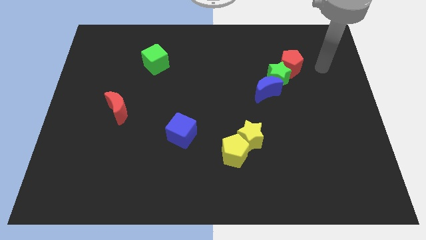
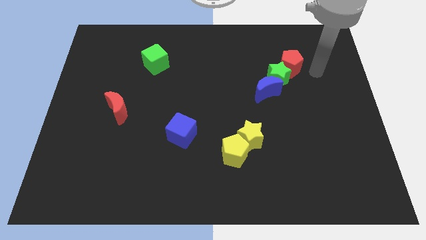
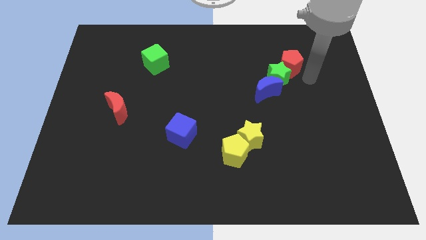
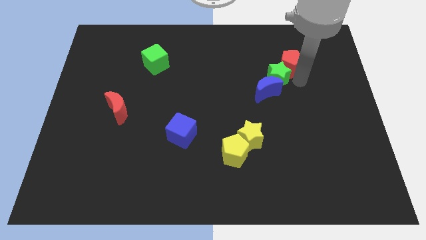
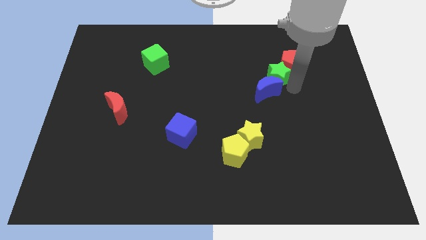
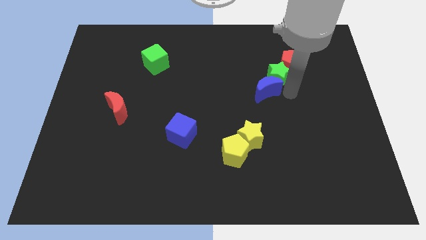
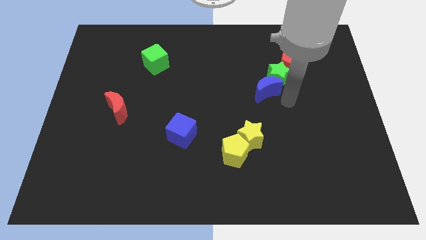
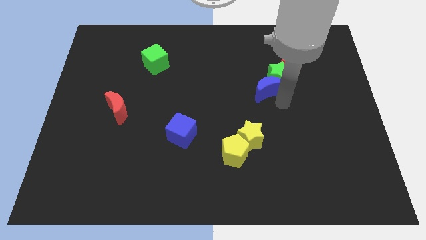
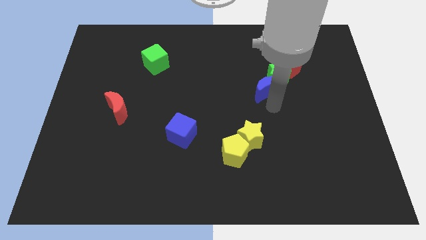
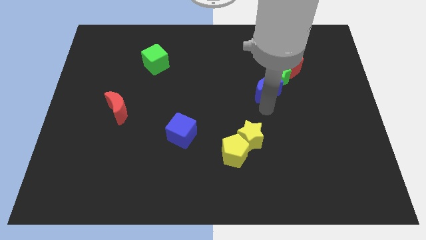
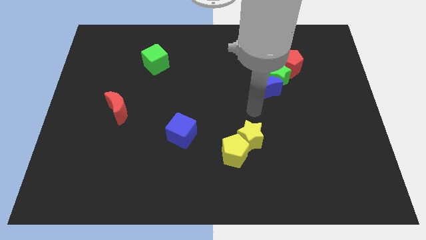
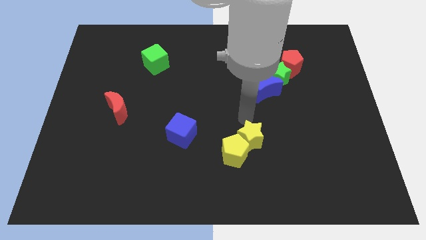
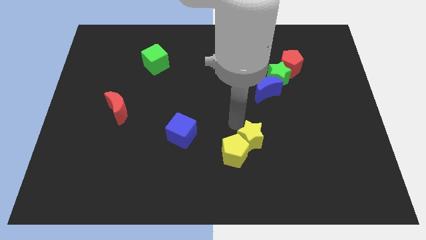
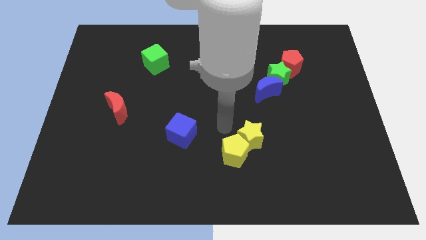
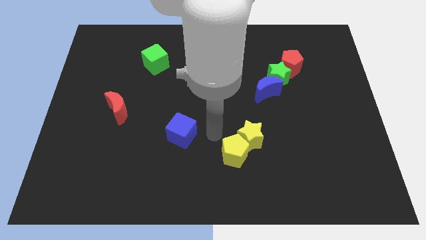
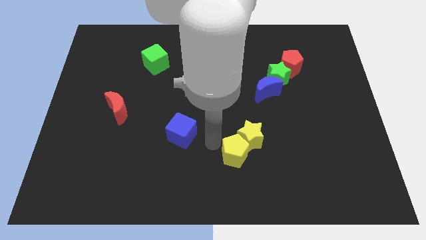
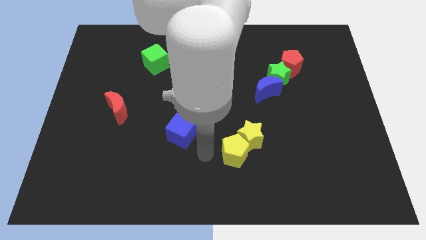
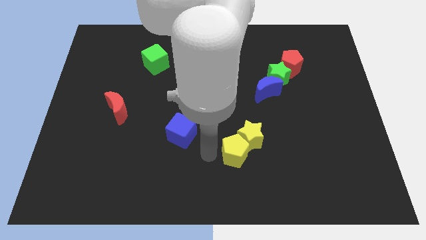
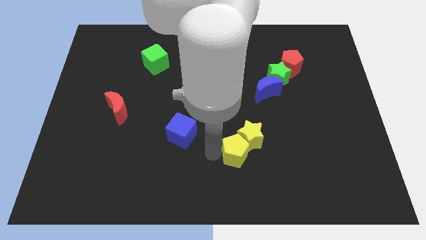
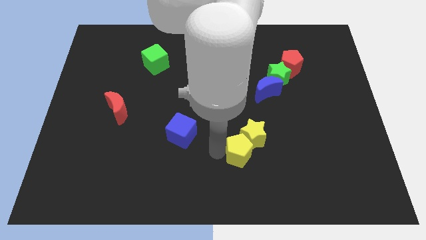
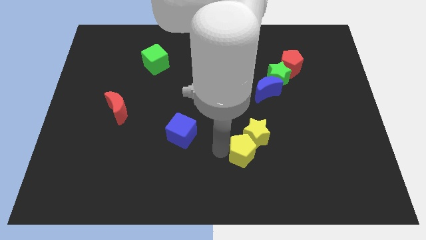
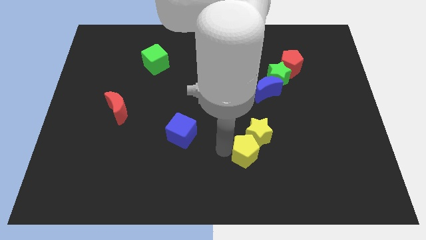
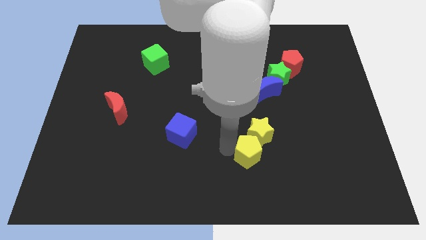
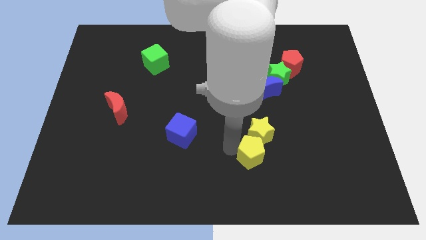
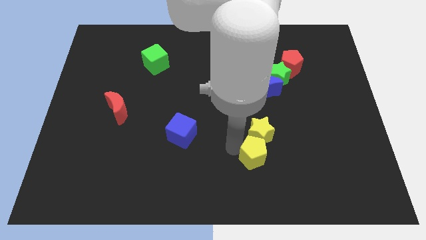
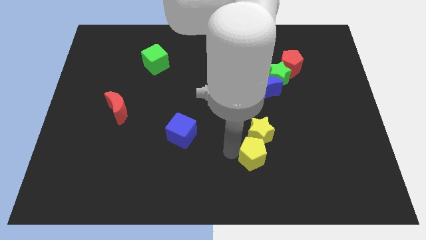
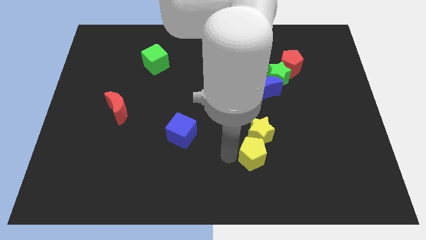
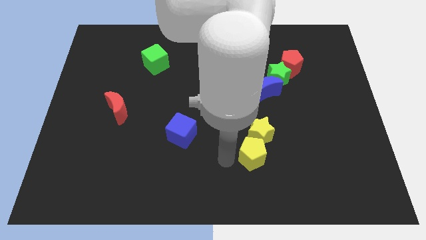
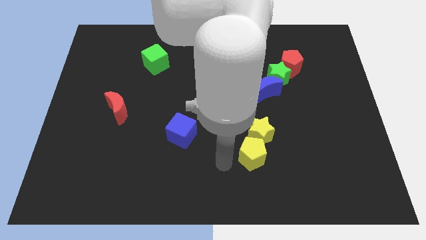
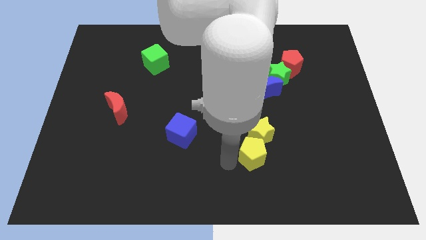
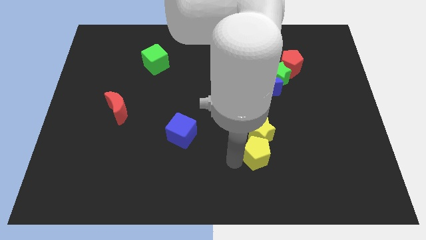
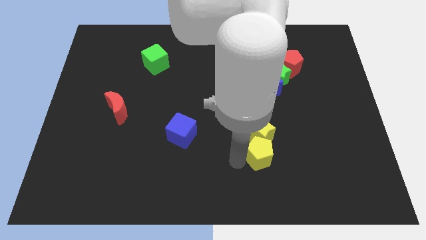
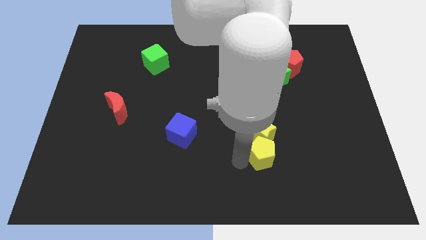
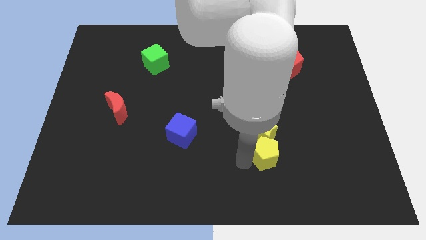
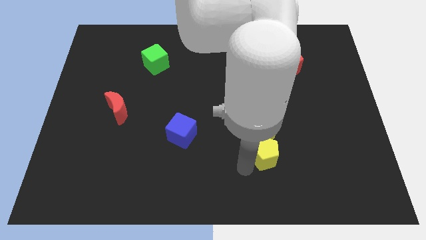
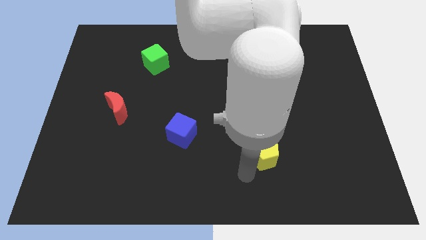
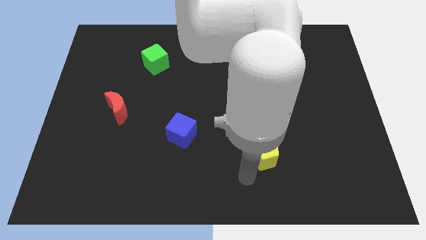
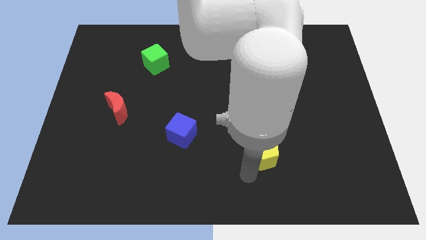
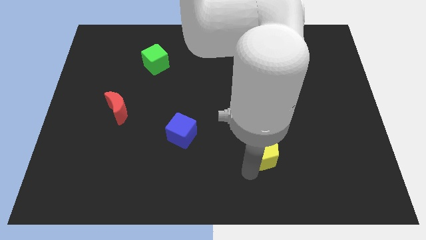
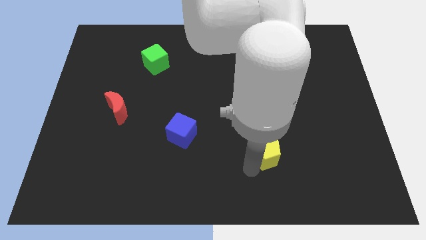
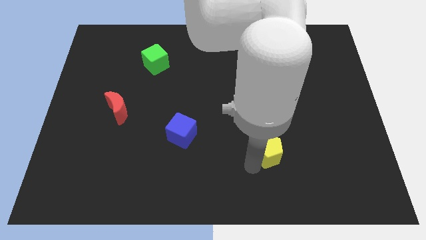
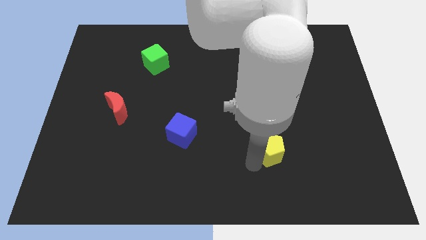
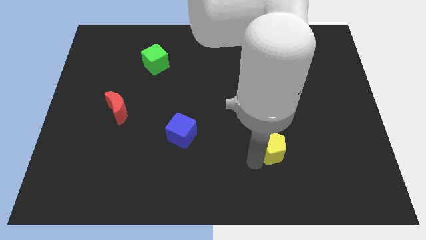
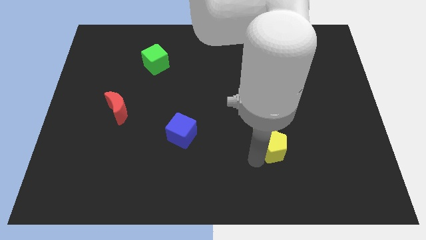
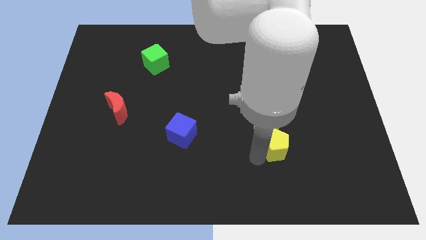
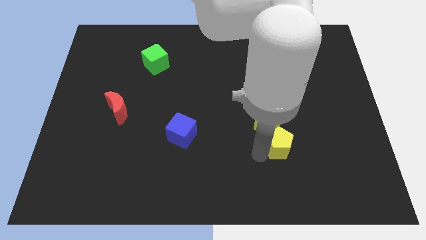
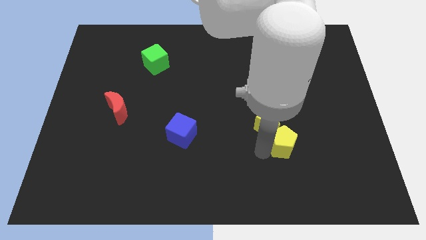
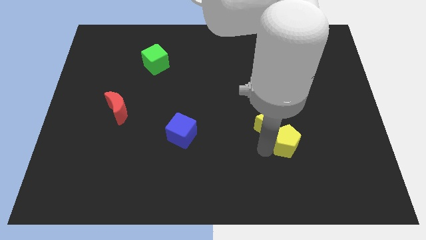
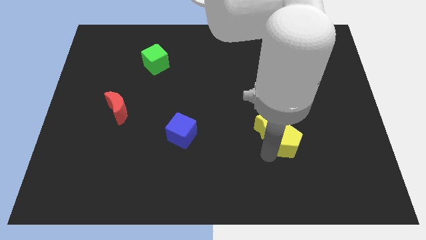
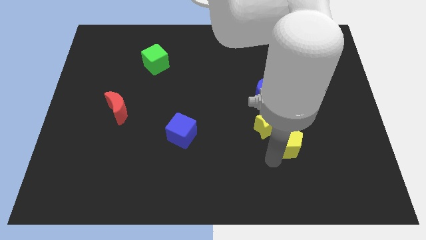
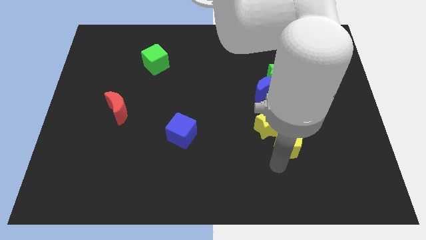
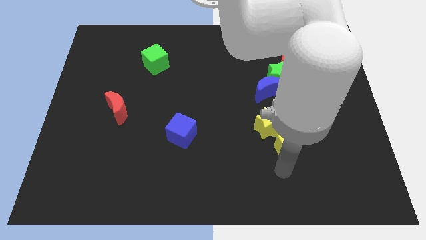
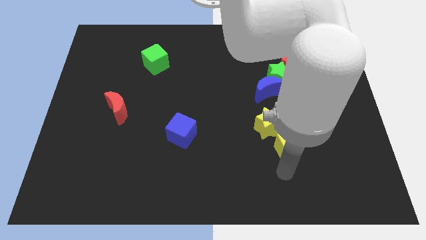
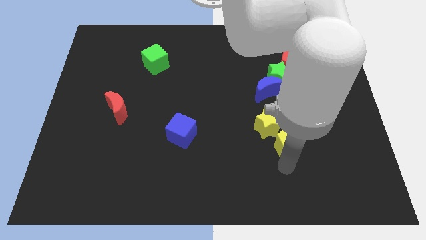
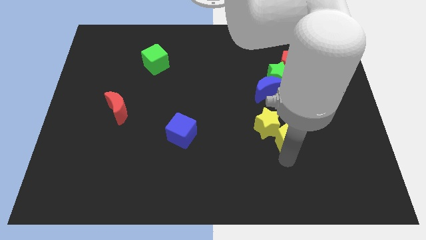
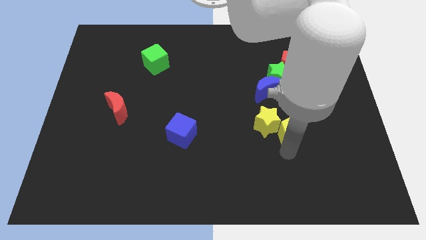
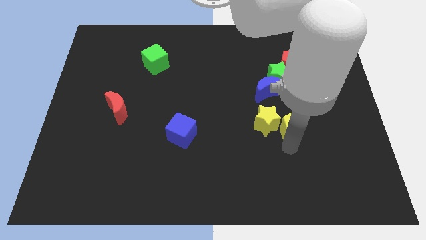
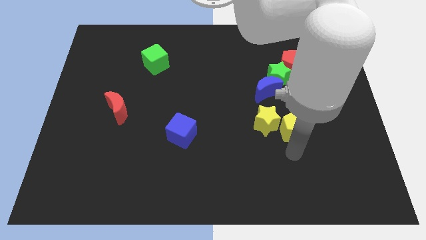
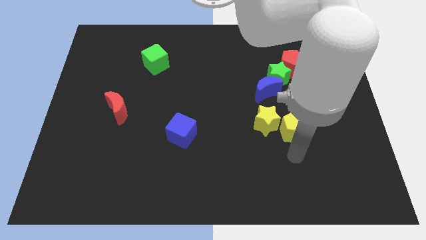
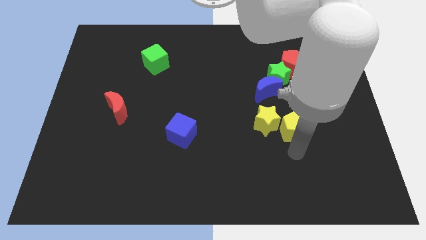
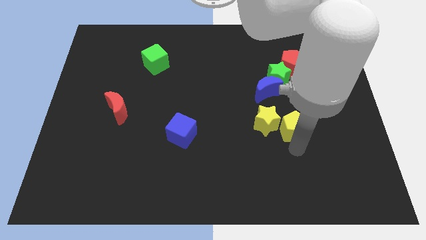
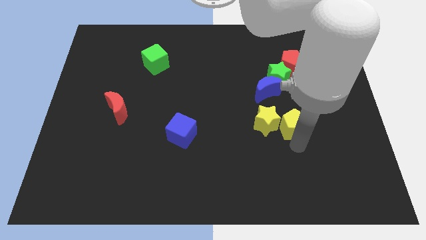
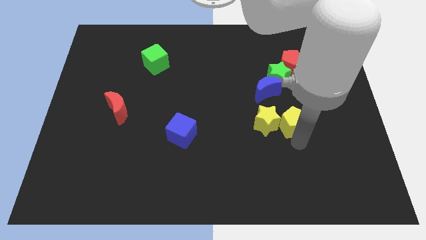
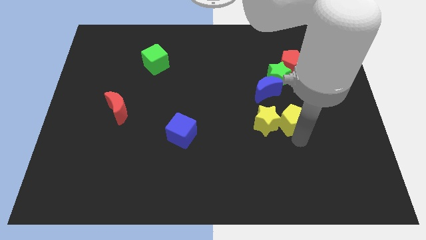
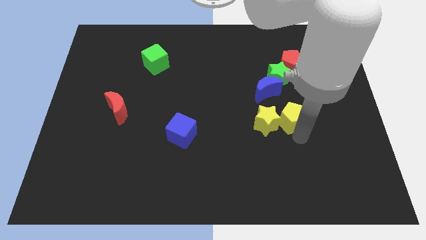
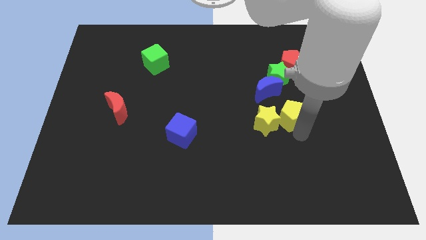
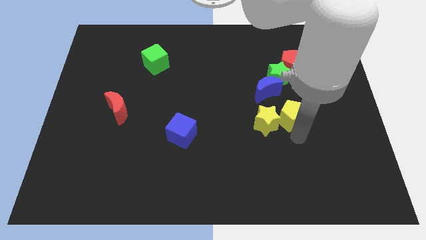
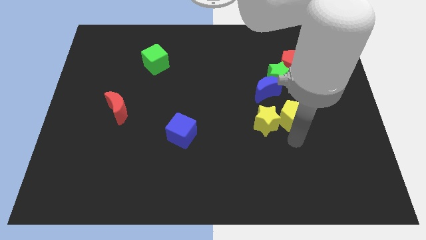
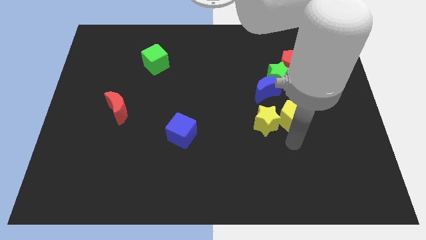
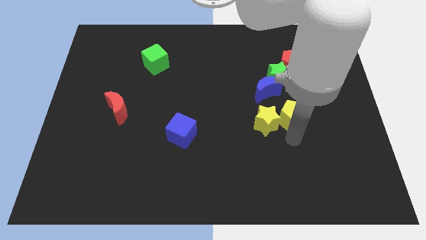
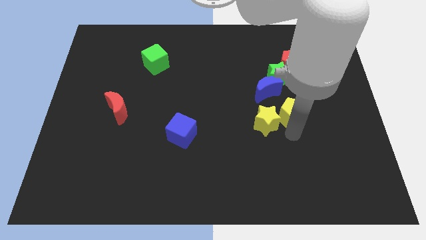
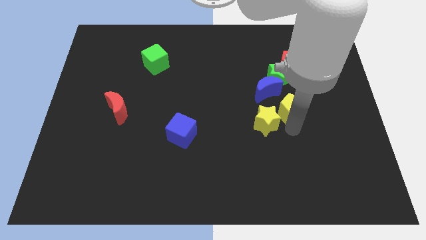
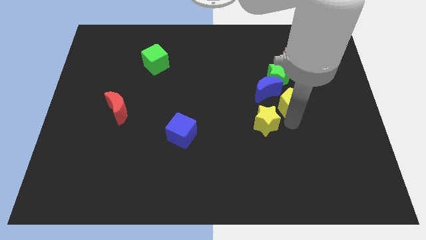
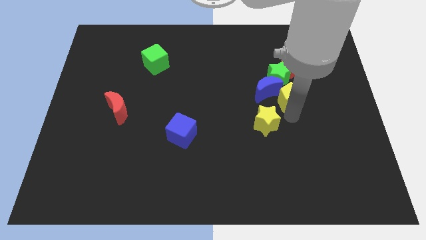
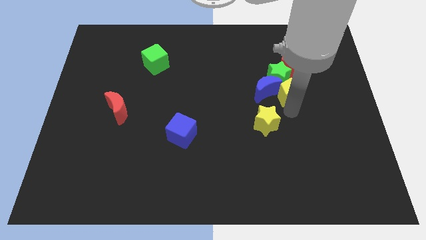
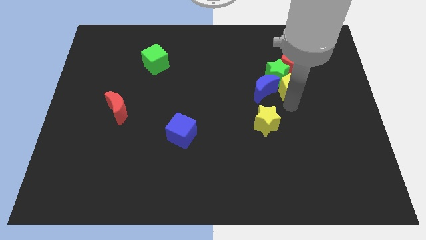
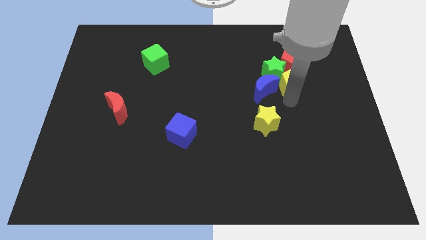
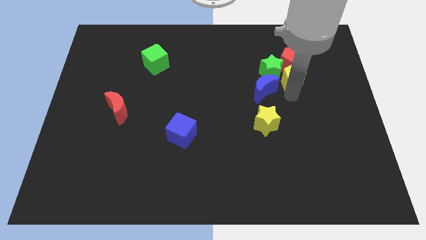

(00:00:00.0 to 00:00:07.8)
push the yellow pentagon towards the red pentagon
